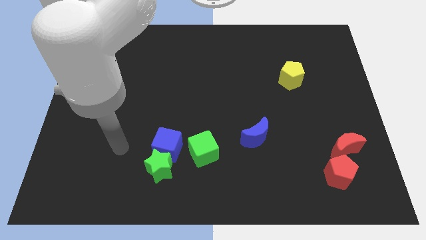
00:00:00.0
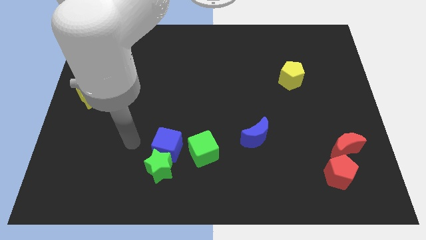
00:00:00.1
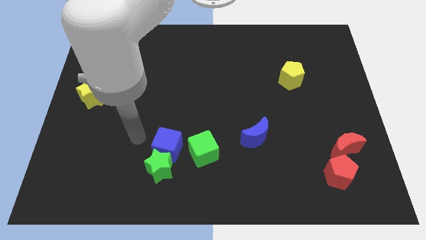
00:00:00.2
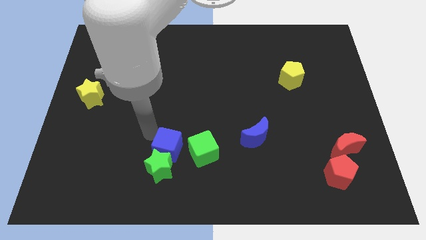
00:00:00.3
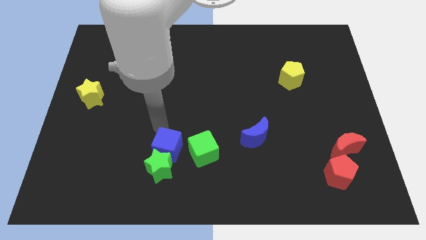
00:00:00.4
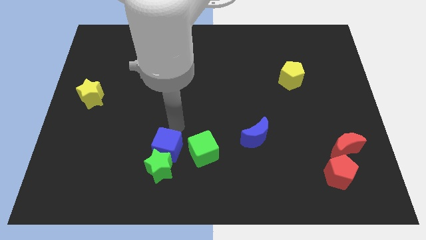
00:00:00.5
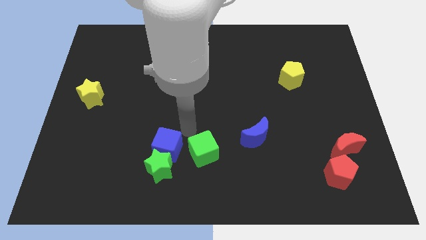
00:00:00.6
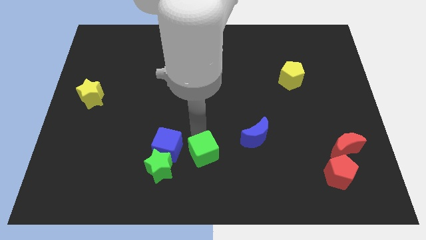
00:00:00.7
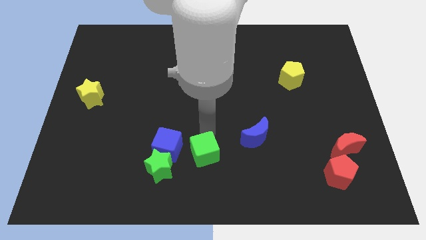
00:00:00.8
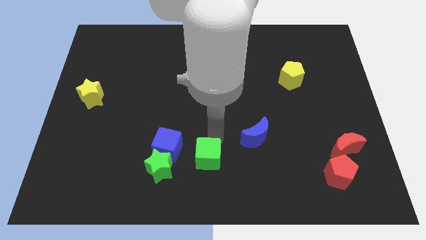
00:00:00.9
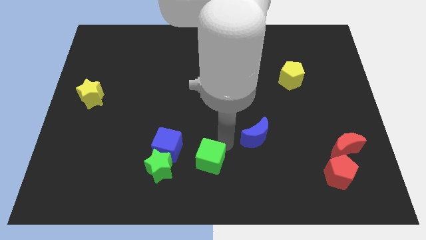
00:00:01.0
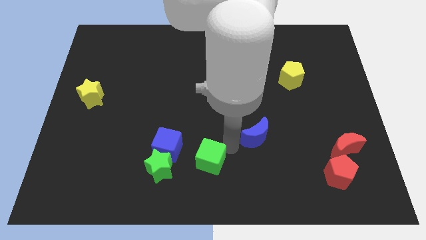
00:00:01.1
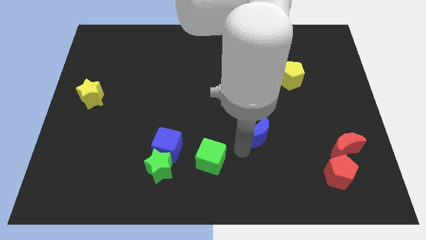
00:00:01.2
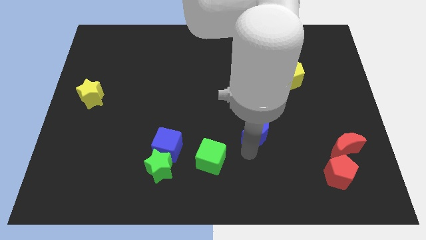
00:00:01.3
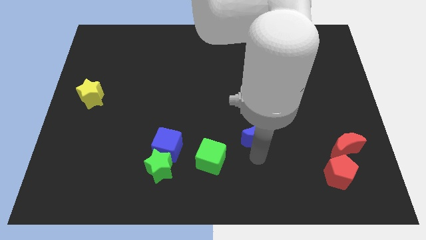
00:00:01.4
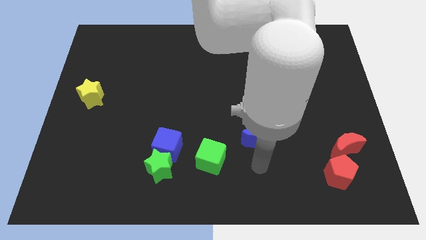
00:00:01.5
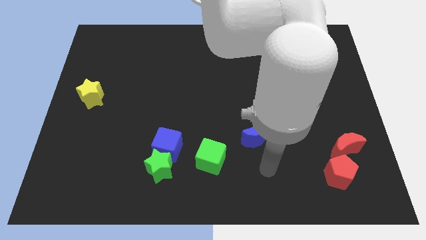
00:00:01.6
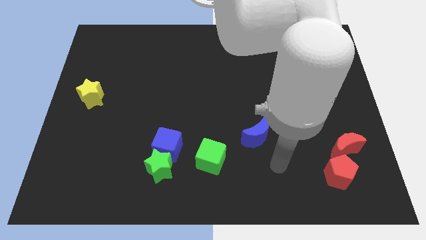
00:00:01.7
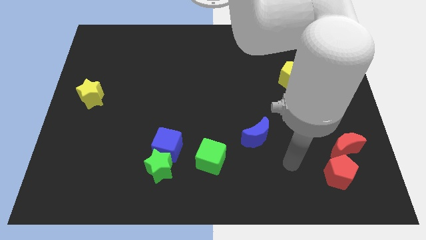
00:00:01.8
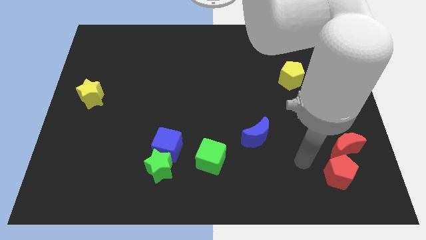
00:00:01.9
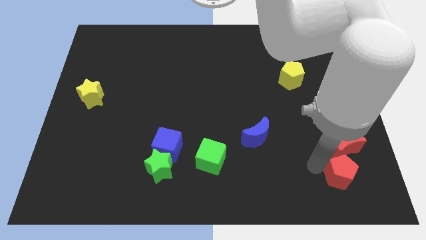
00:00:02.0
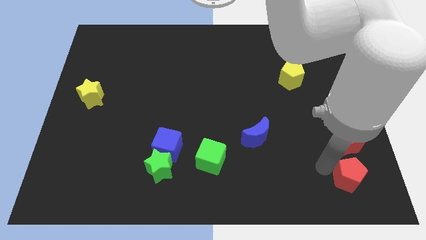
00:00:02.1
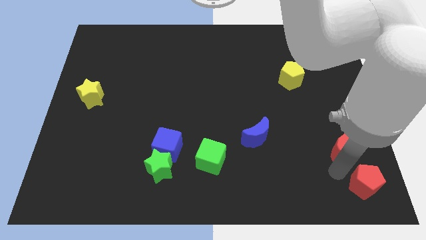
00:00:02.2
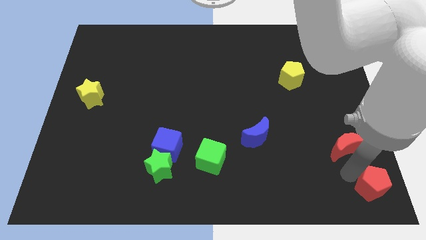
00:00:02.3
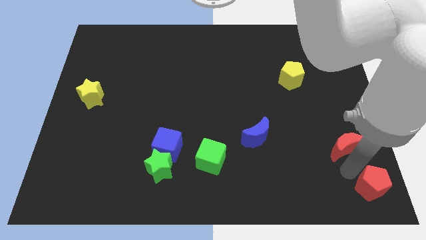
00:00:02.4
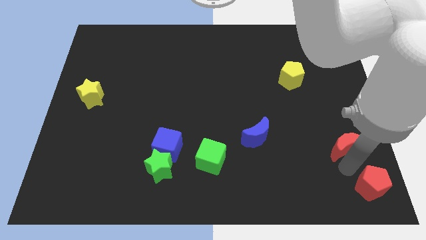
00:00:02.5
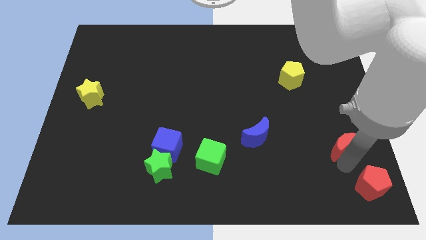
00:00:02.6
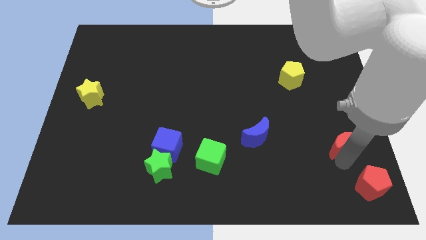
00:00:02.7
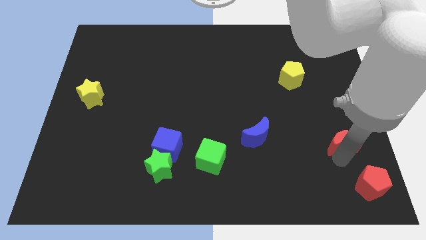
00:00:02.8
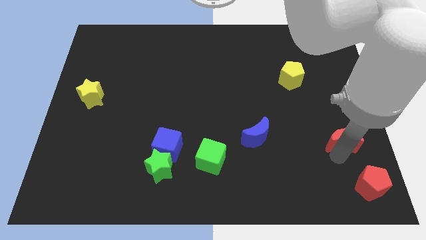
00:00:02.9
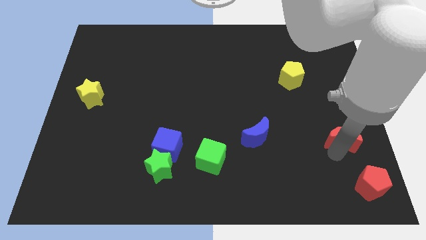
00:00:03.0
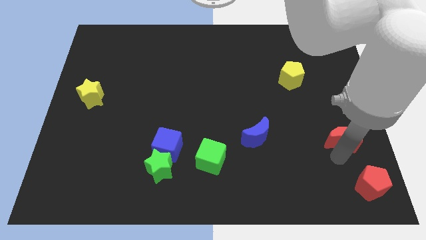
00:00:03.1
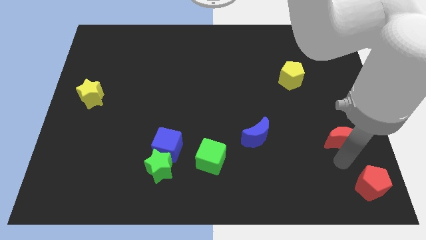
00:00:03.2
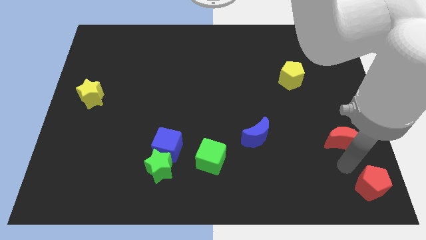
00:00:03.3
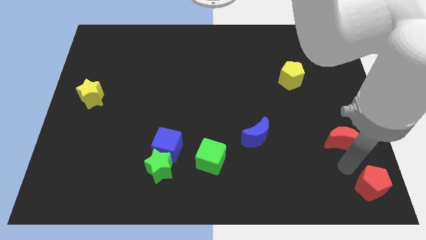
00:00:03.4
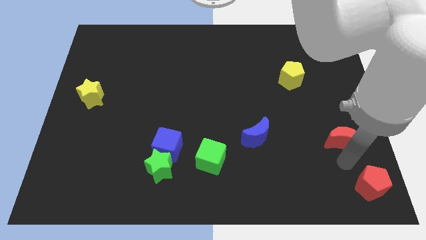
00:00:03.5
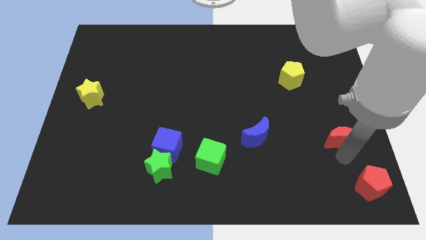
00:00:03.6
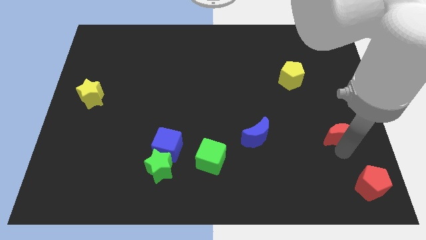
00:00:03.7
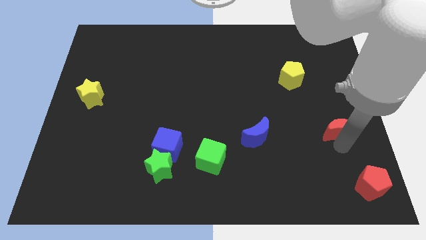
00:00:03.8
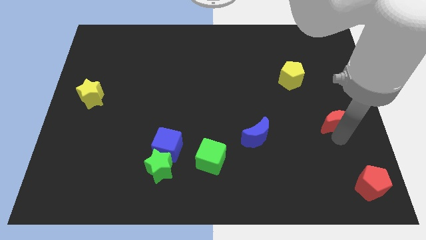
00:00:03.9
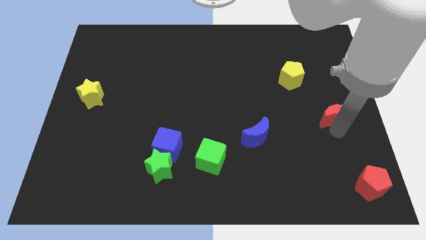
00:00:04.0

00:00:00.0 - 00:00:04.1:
move the red moon somewhat upwards

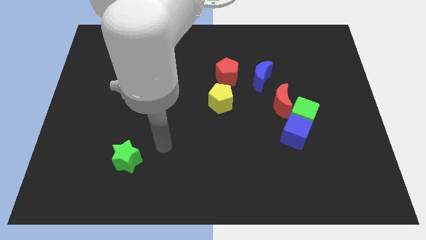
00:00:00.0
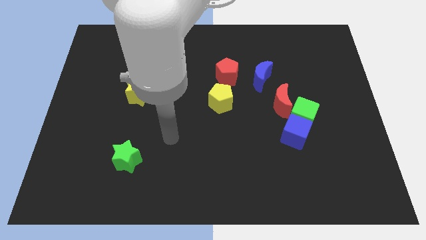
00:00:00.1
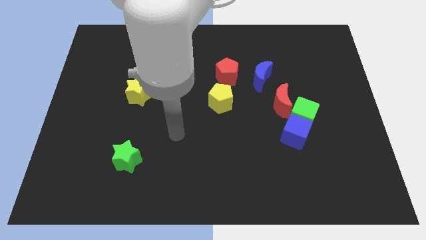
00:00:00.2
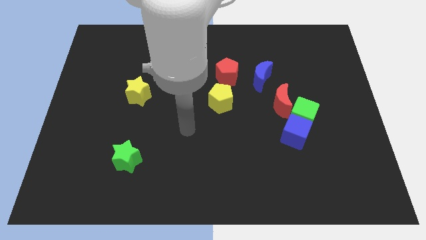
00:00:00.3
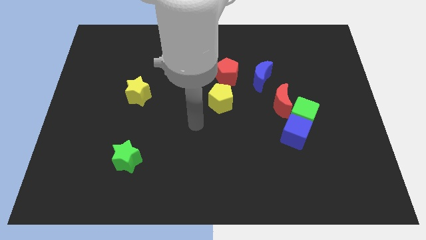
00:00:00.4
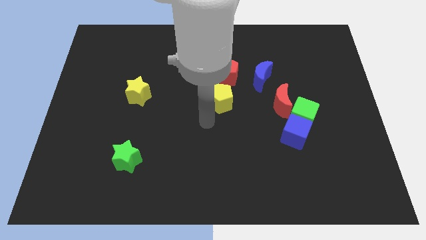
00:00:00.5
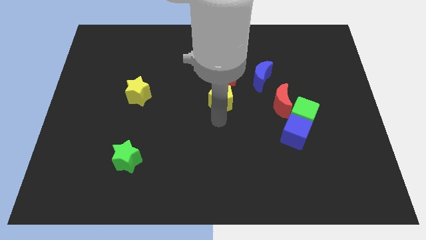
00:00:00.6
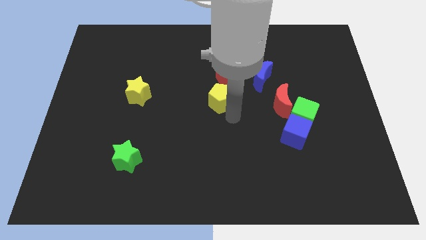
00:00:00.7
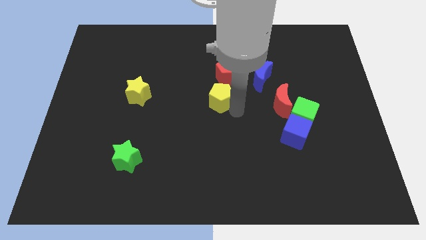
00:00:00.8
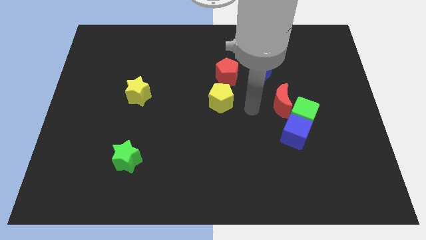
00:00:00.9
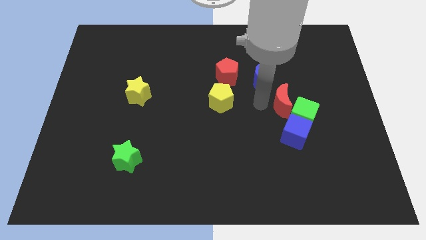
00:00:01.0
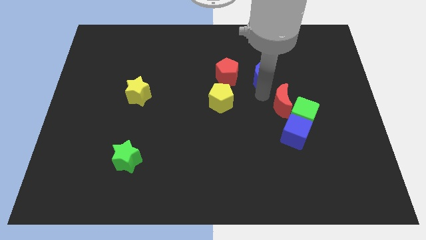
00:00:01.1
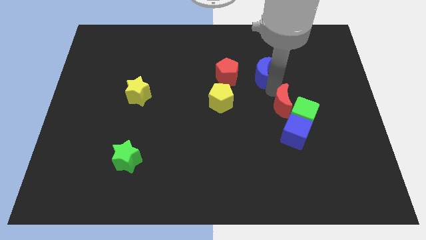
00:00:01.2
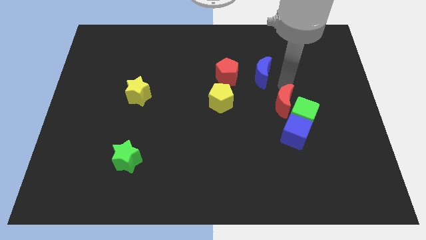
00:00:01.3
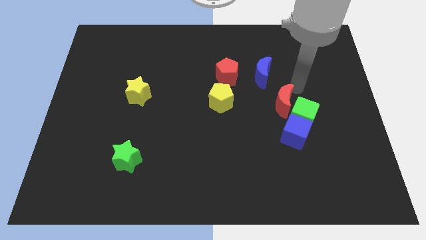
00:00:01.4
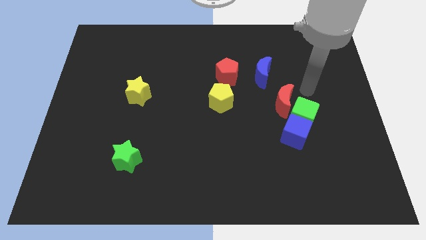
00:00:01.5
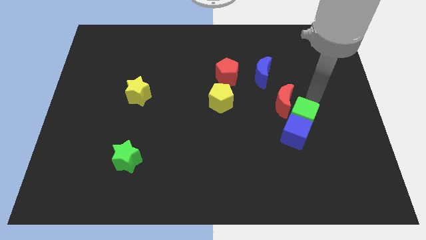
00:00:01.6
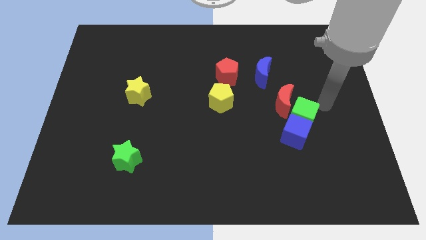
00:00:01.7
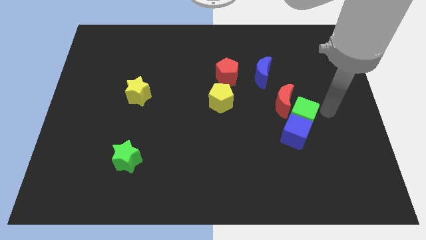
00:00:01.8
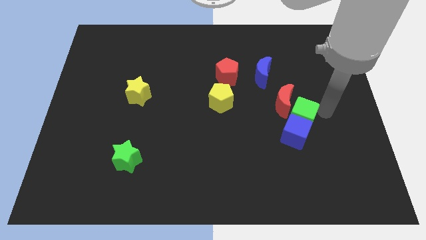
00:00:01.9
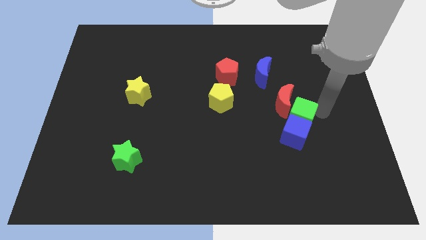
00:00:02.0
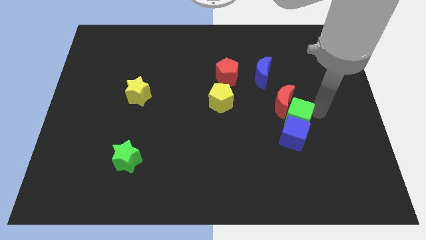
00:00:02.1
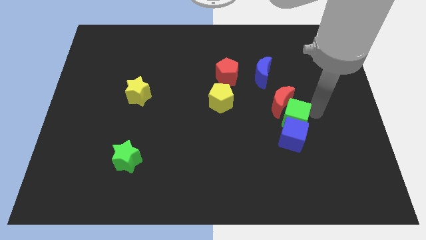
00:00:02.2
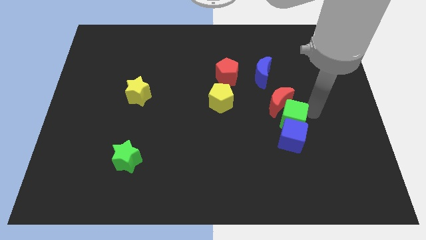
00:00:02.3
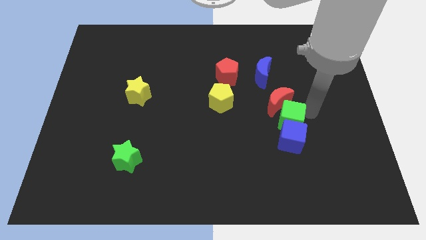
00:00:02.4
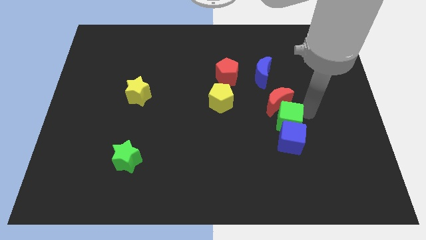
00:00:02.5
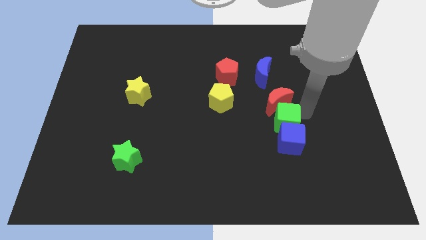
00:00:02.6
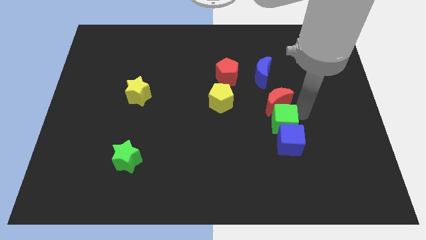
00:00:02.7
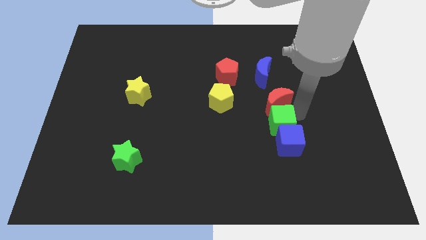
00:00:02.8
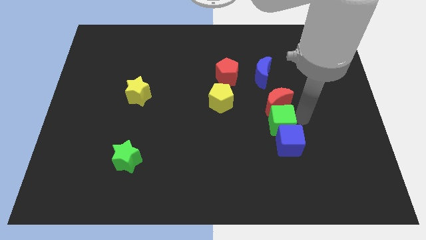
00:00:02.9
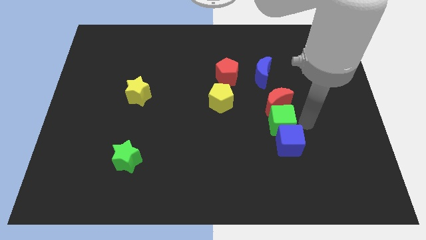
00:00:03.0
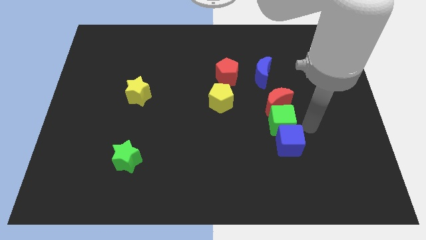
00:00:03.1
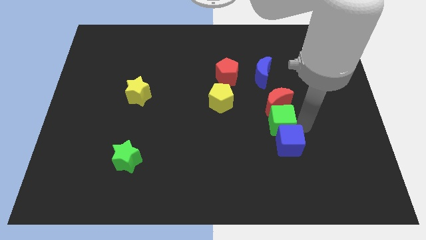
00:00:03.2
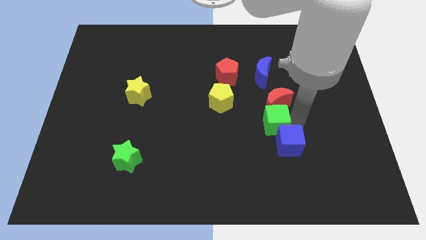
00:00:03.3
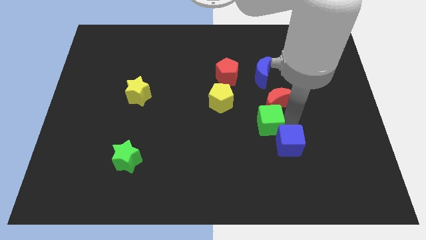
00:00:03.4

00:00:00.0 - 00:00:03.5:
slightly slide the green cube to the left

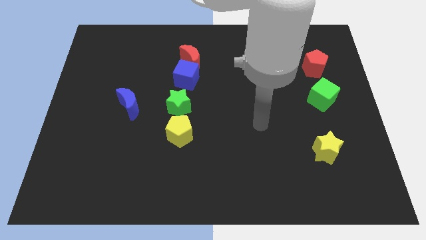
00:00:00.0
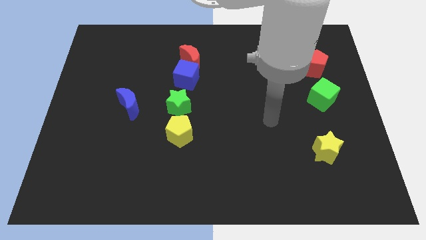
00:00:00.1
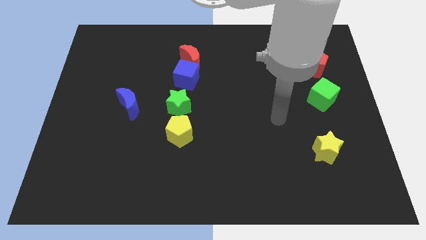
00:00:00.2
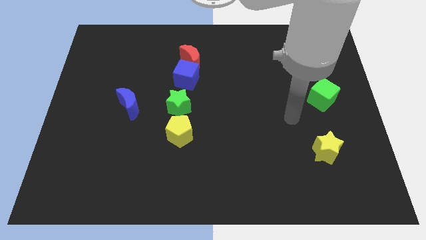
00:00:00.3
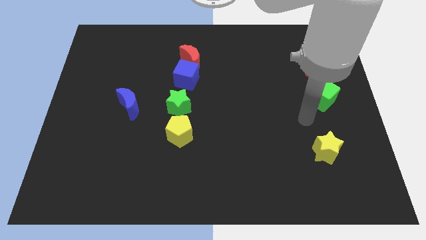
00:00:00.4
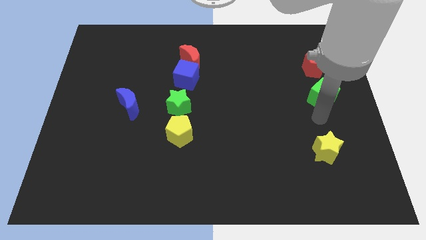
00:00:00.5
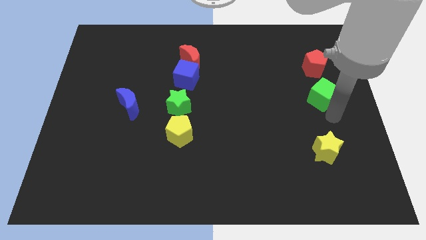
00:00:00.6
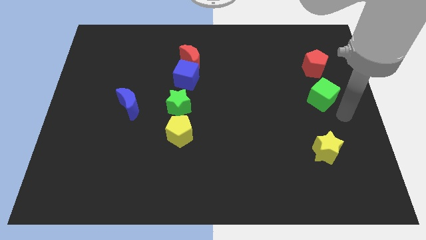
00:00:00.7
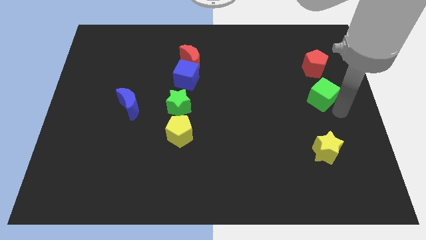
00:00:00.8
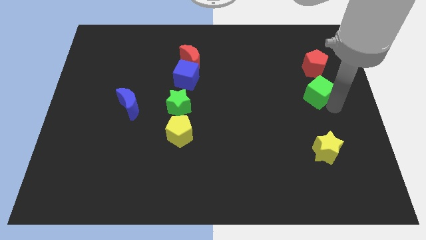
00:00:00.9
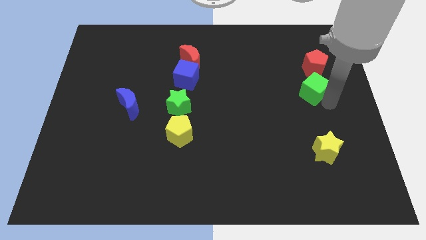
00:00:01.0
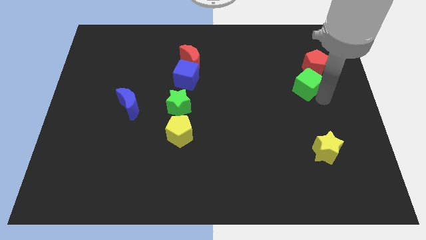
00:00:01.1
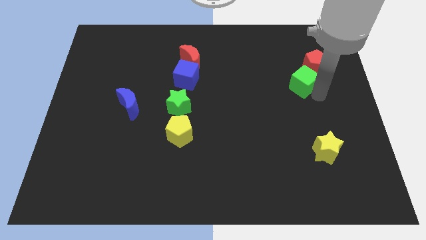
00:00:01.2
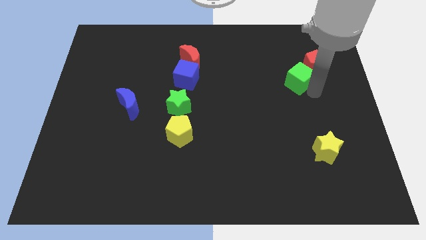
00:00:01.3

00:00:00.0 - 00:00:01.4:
slide the green cube up and left a little bit
